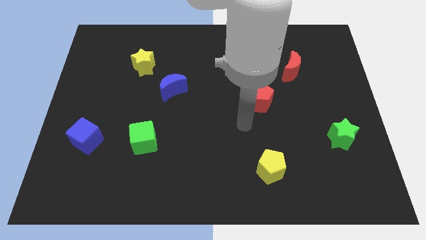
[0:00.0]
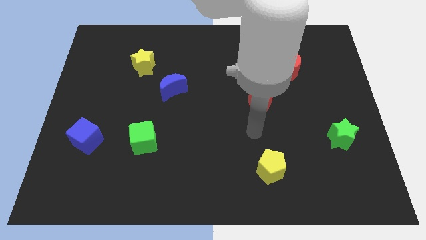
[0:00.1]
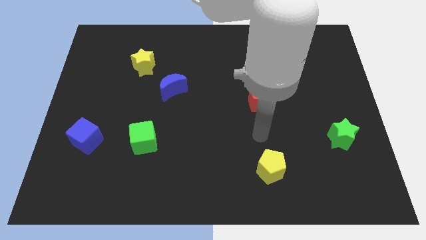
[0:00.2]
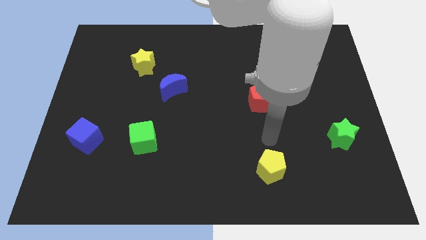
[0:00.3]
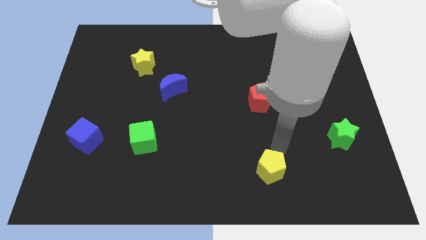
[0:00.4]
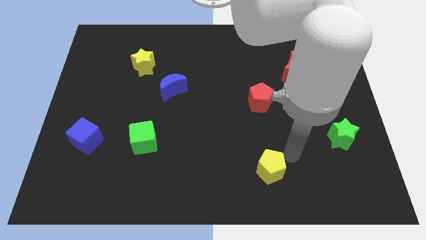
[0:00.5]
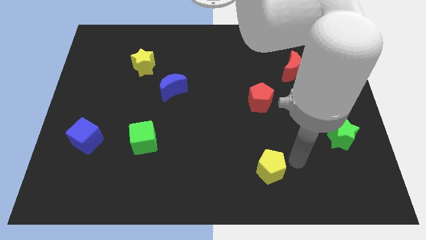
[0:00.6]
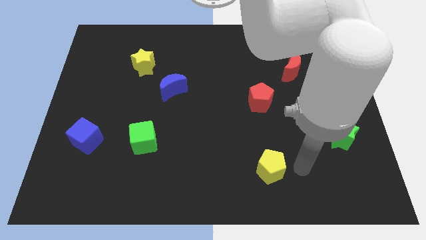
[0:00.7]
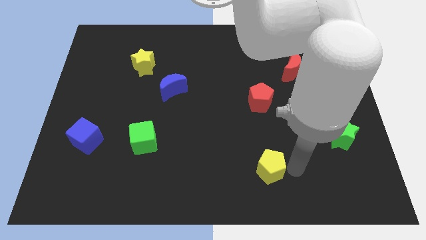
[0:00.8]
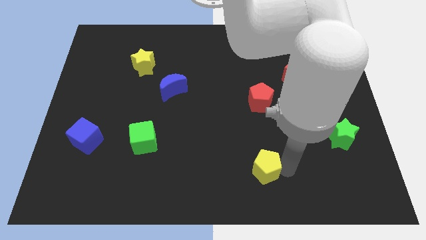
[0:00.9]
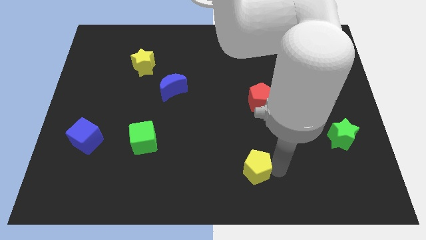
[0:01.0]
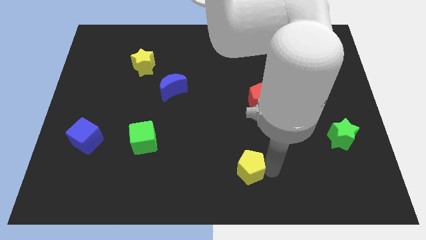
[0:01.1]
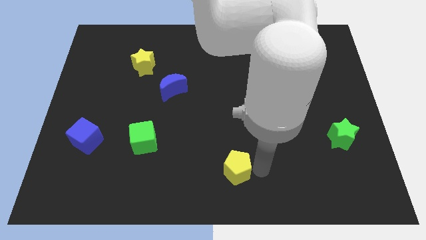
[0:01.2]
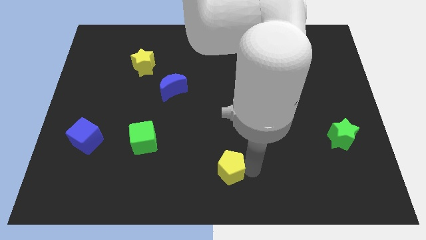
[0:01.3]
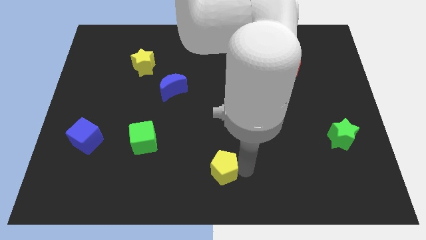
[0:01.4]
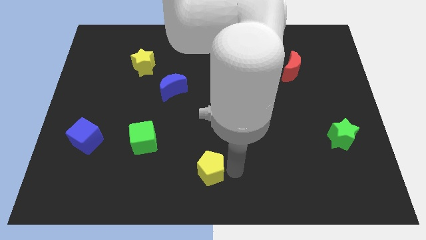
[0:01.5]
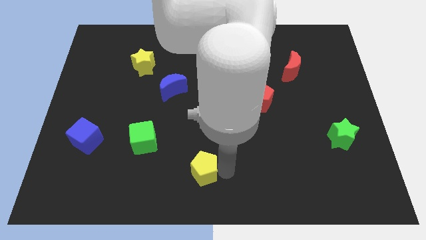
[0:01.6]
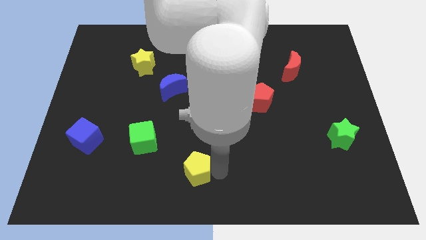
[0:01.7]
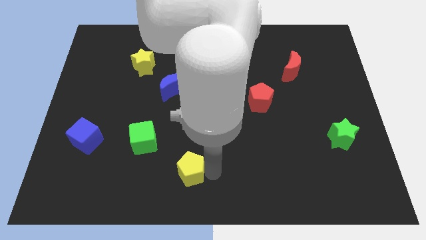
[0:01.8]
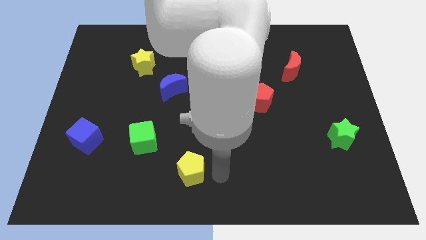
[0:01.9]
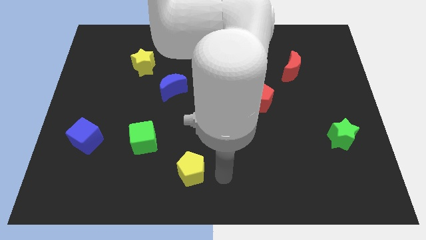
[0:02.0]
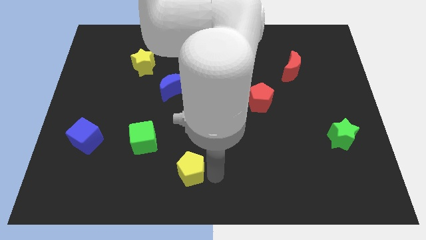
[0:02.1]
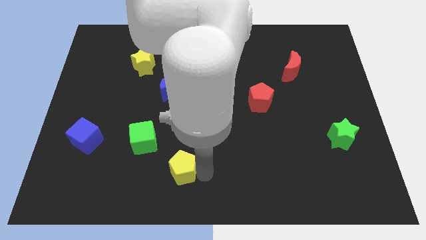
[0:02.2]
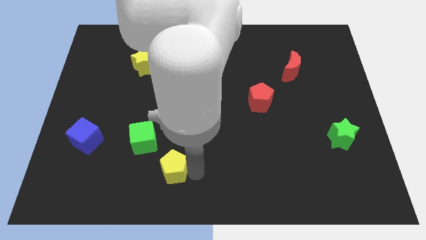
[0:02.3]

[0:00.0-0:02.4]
slide the yellow pentagon to the left

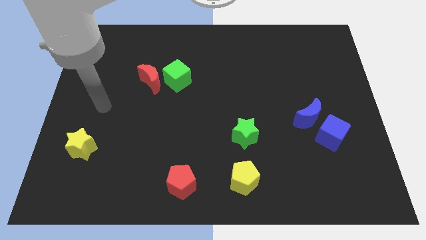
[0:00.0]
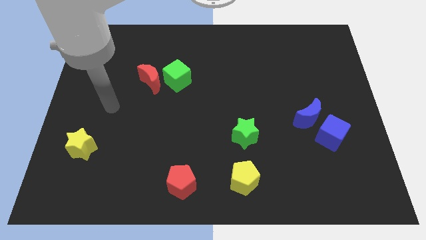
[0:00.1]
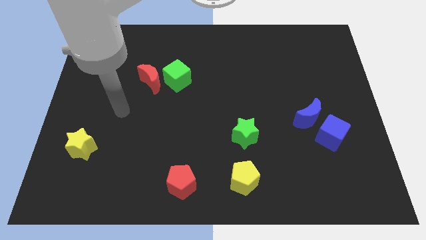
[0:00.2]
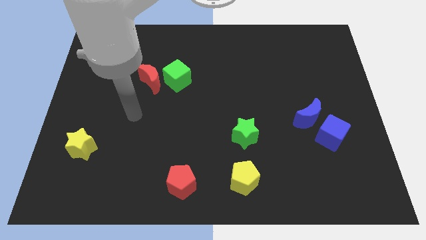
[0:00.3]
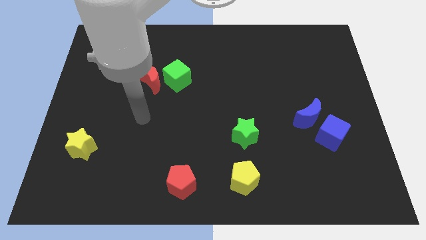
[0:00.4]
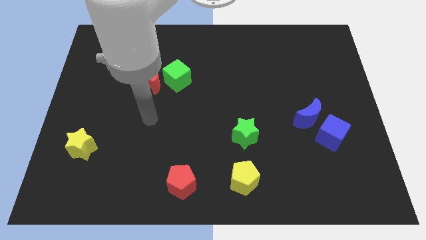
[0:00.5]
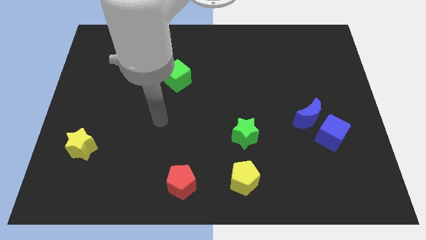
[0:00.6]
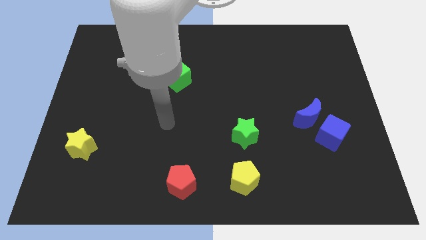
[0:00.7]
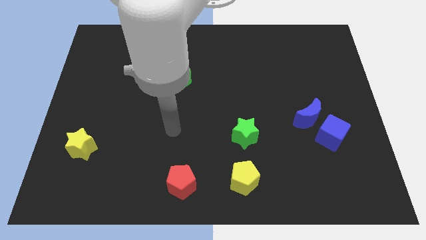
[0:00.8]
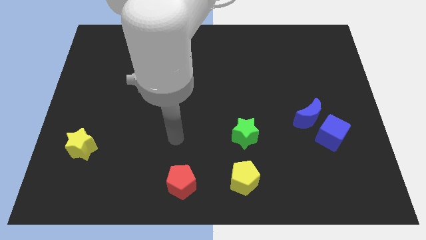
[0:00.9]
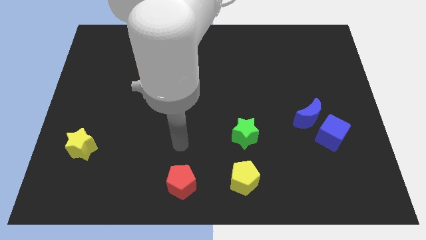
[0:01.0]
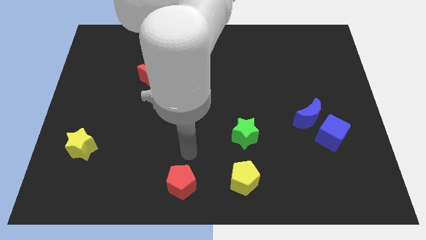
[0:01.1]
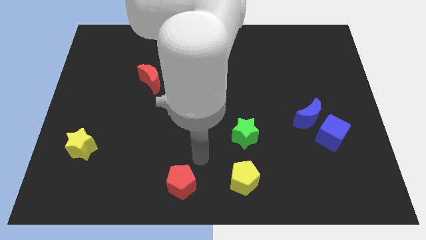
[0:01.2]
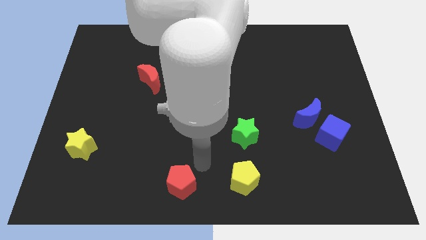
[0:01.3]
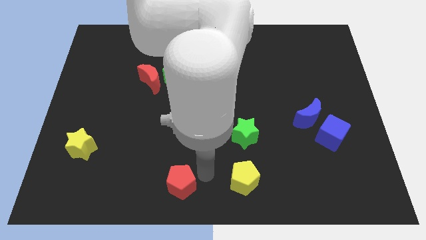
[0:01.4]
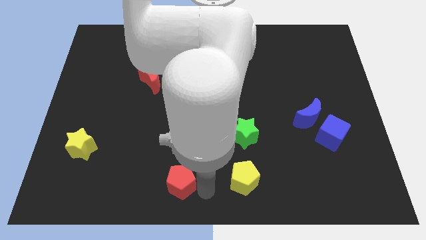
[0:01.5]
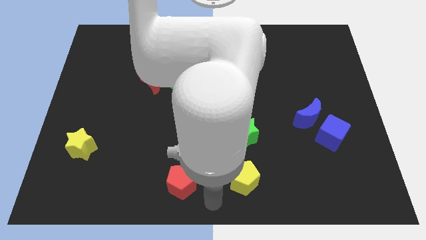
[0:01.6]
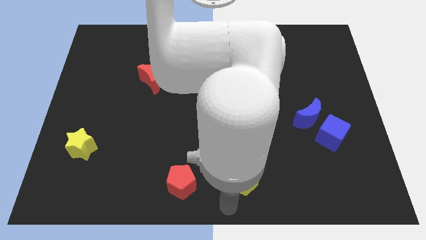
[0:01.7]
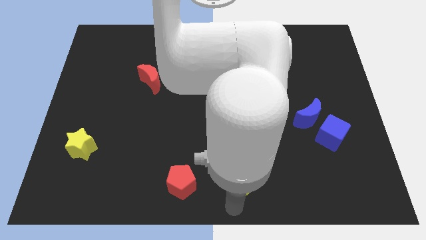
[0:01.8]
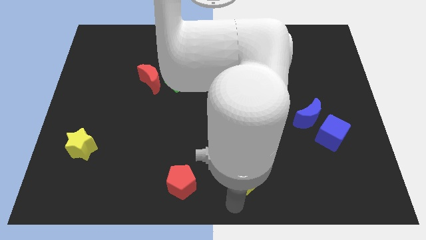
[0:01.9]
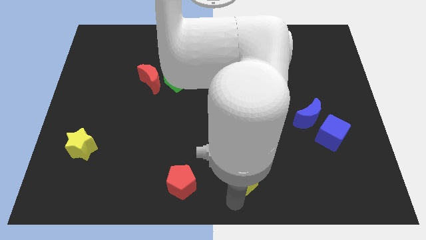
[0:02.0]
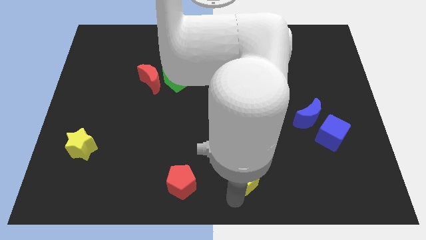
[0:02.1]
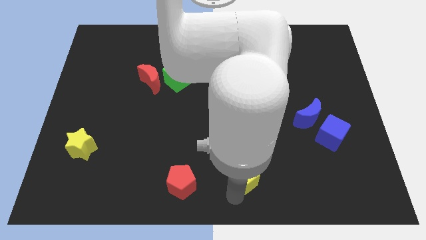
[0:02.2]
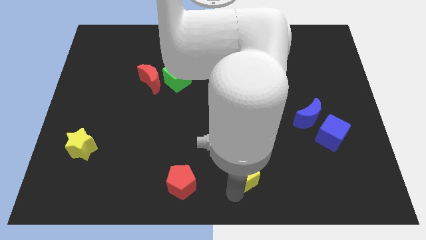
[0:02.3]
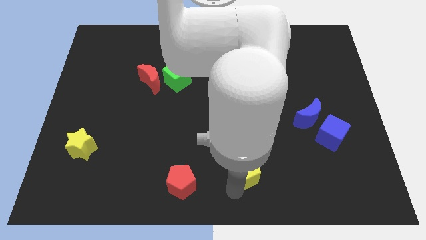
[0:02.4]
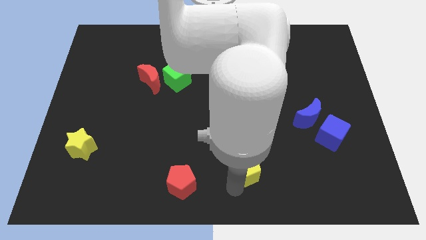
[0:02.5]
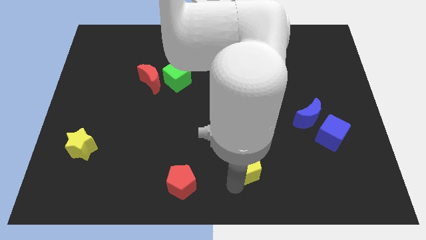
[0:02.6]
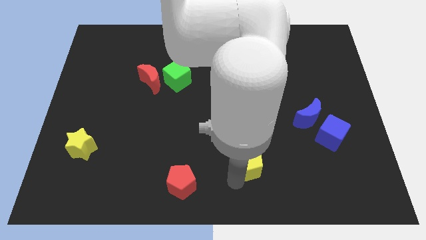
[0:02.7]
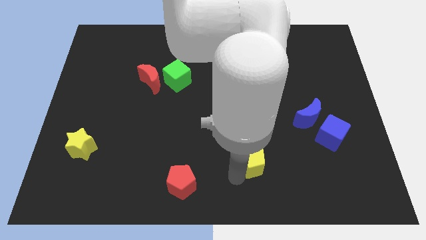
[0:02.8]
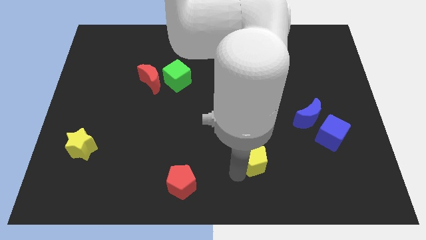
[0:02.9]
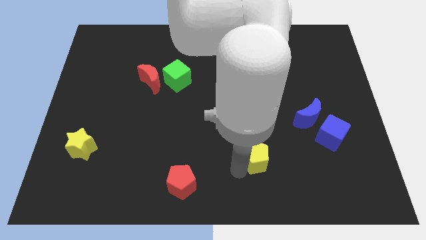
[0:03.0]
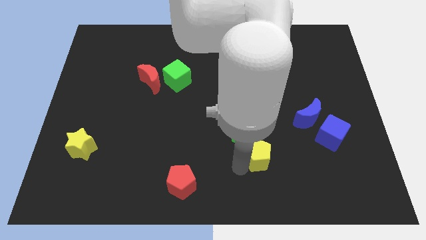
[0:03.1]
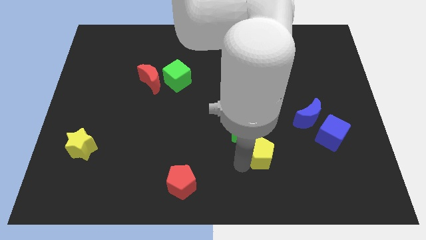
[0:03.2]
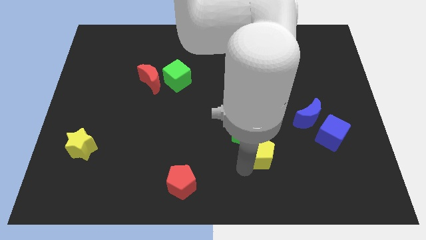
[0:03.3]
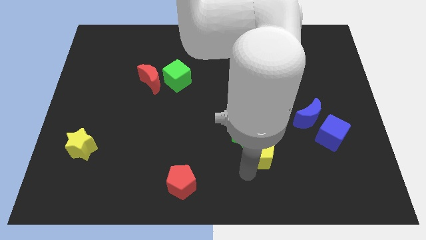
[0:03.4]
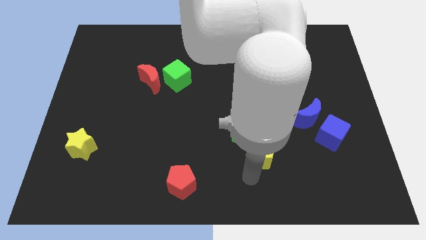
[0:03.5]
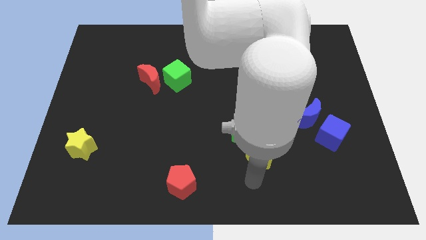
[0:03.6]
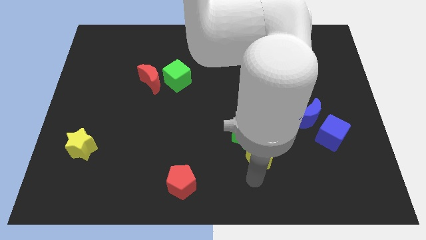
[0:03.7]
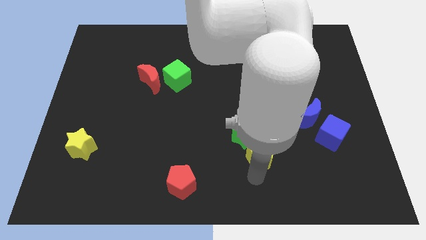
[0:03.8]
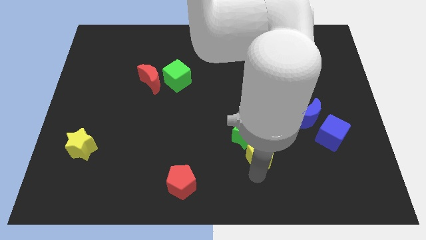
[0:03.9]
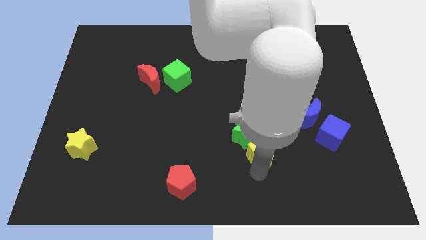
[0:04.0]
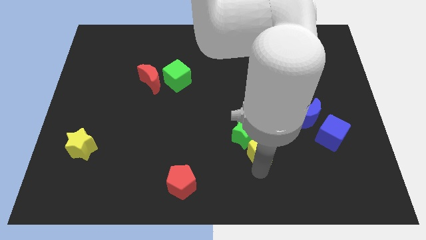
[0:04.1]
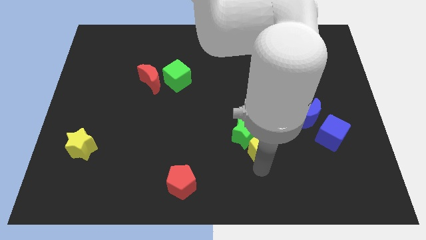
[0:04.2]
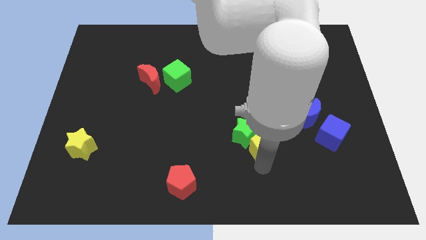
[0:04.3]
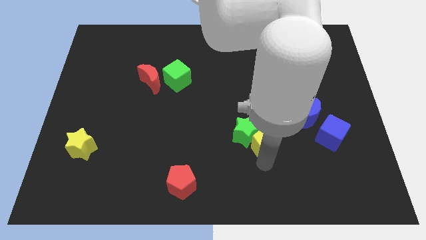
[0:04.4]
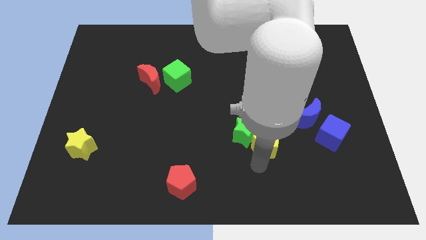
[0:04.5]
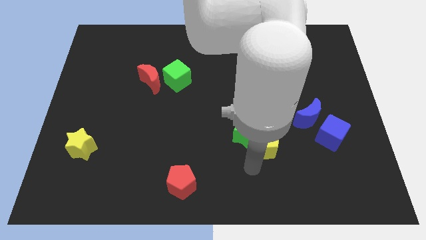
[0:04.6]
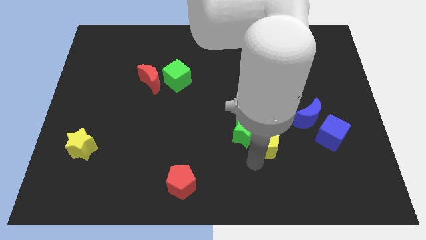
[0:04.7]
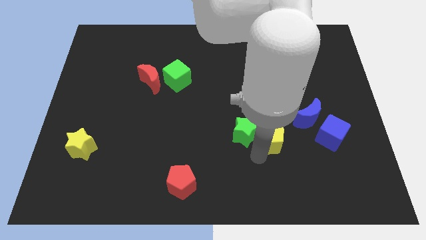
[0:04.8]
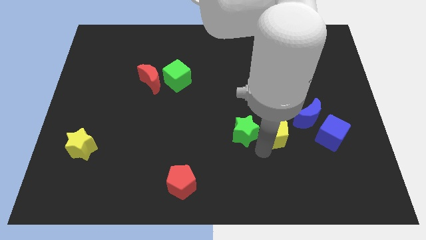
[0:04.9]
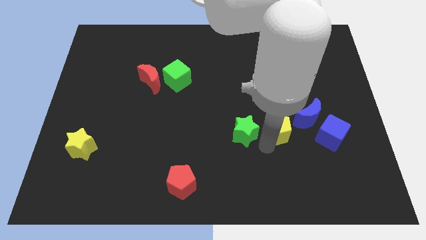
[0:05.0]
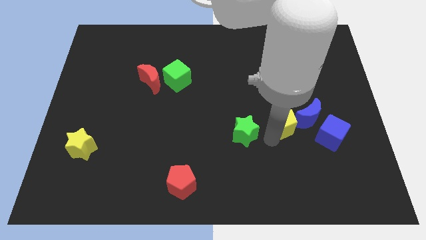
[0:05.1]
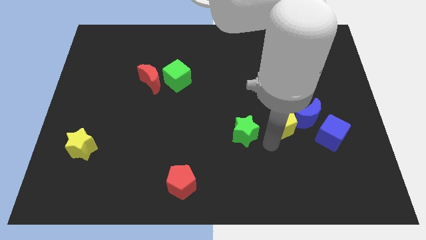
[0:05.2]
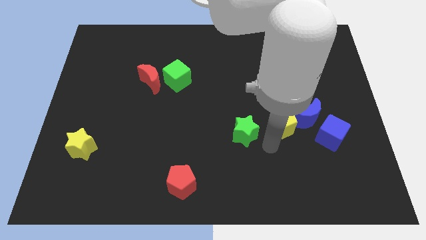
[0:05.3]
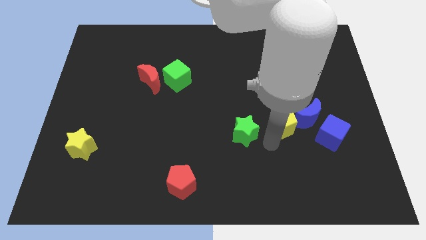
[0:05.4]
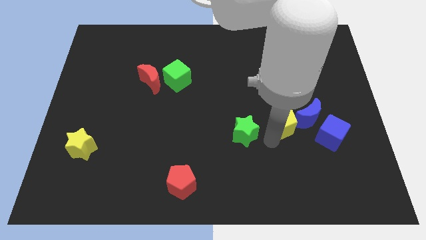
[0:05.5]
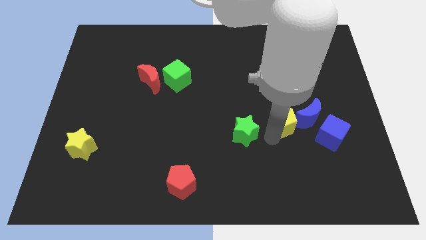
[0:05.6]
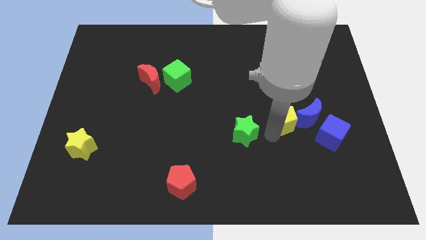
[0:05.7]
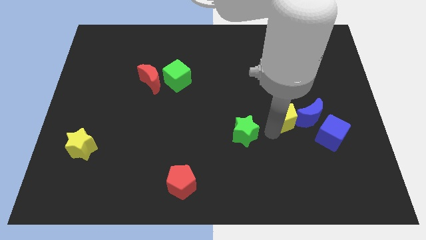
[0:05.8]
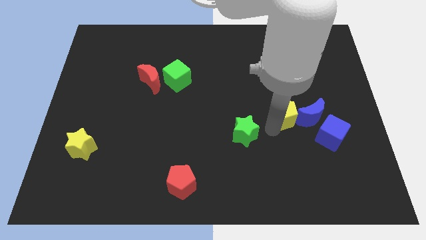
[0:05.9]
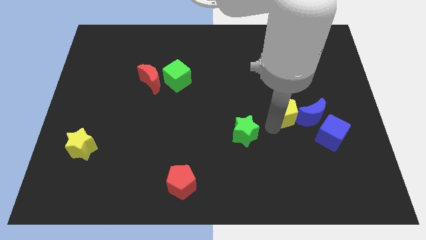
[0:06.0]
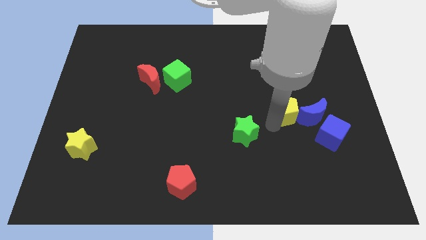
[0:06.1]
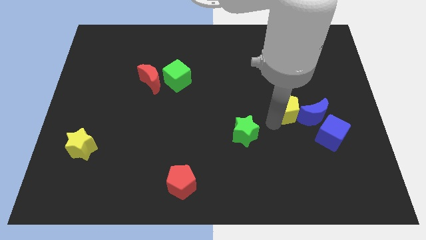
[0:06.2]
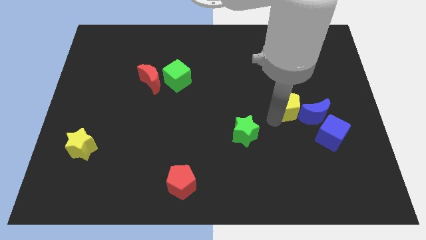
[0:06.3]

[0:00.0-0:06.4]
slide the yellow pentagon diagonally up and to the right
